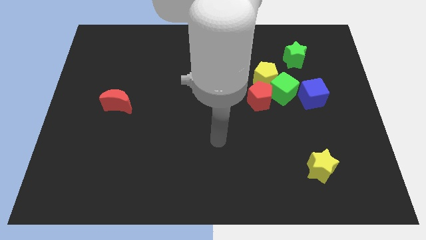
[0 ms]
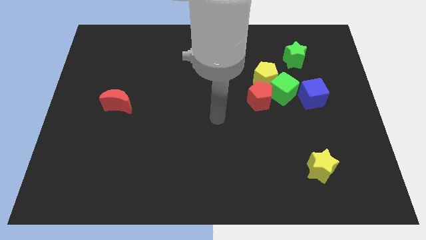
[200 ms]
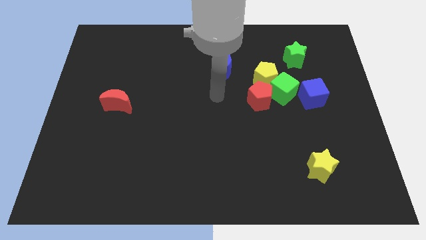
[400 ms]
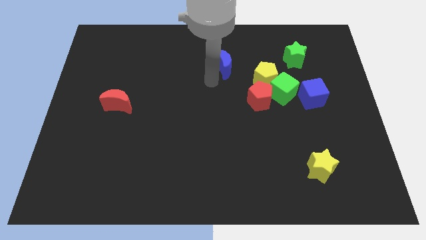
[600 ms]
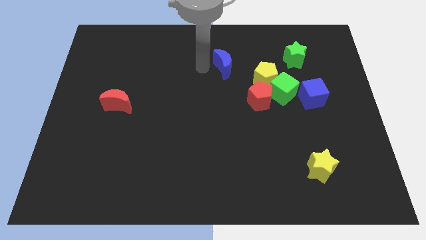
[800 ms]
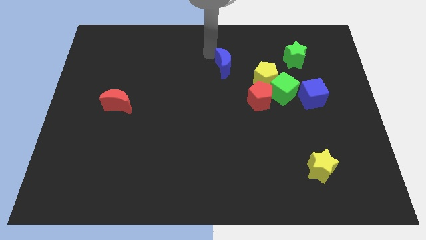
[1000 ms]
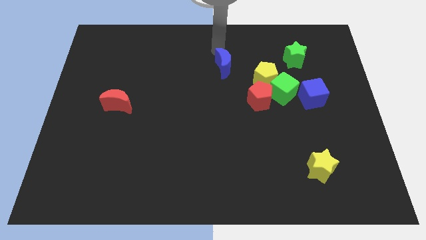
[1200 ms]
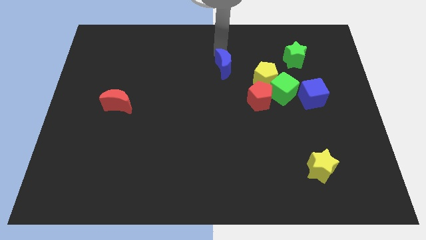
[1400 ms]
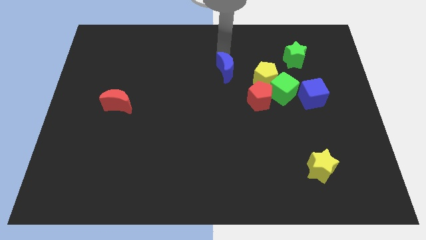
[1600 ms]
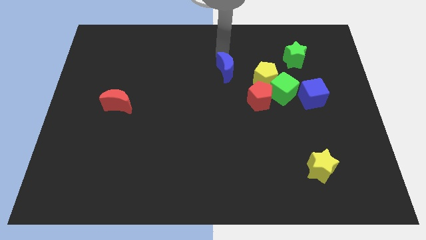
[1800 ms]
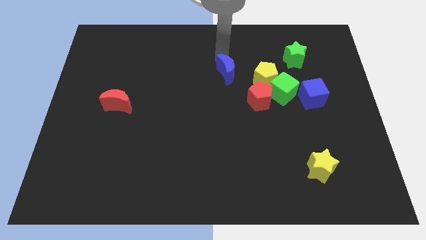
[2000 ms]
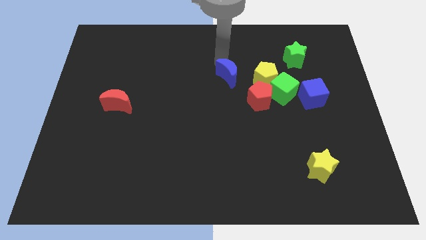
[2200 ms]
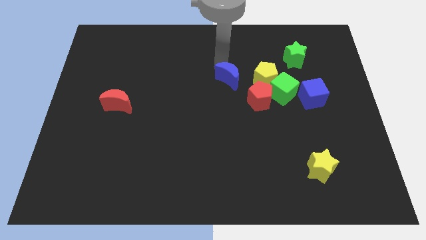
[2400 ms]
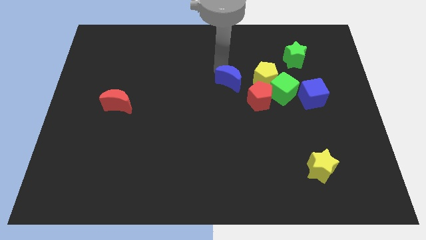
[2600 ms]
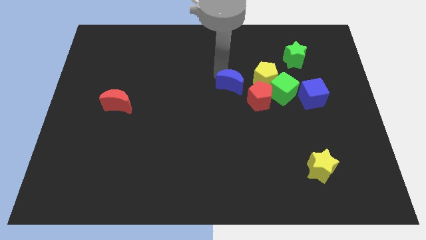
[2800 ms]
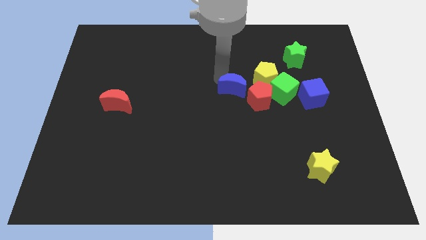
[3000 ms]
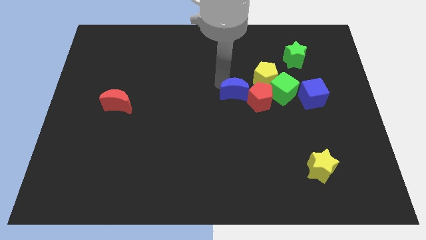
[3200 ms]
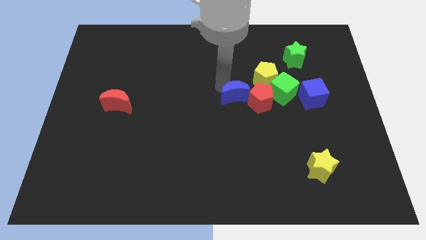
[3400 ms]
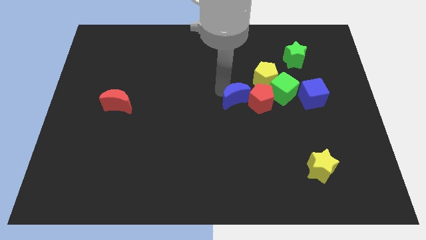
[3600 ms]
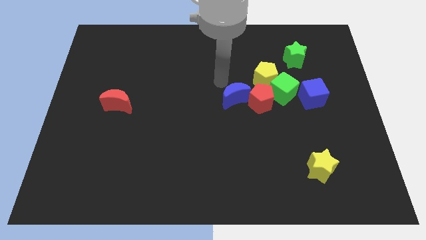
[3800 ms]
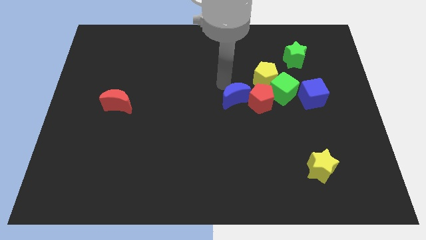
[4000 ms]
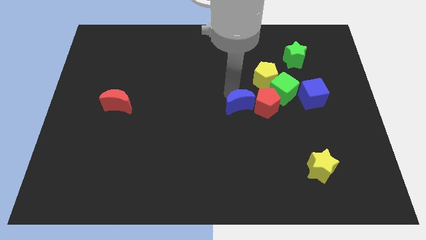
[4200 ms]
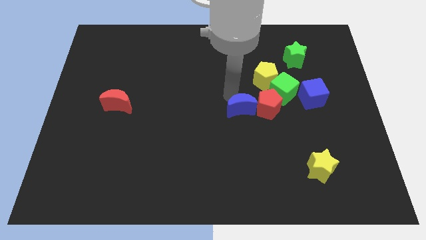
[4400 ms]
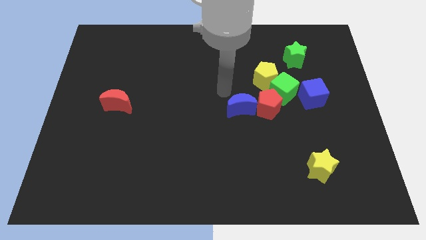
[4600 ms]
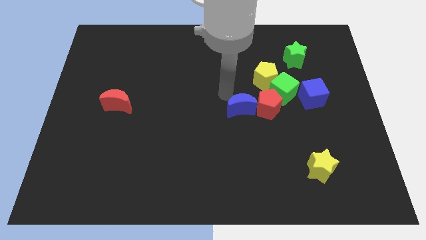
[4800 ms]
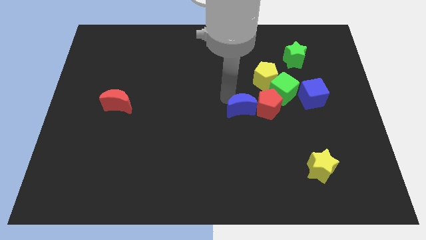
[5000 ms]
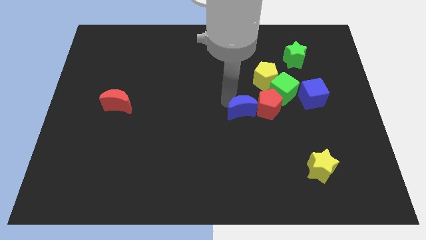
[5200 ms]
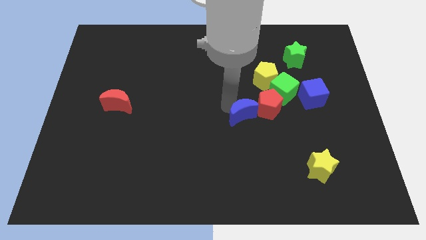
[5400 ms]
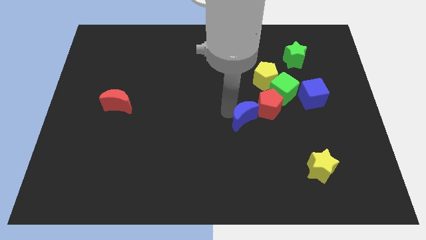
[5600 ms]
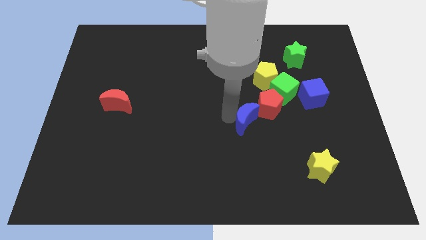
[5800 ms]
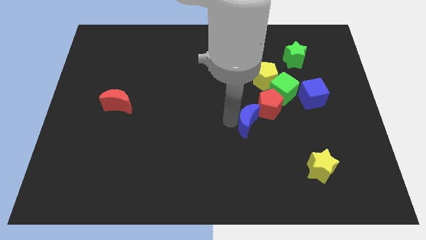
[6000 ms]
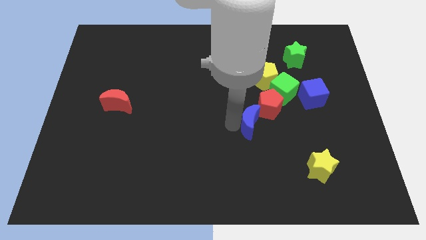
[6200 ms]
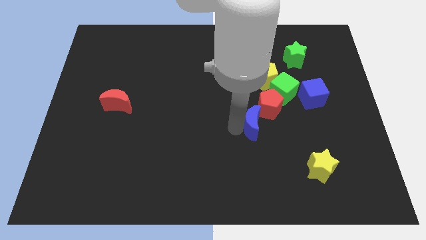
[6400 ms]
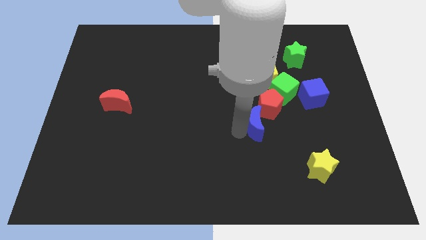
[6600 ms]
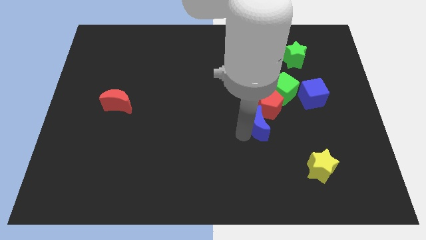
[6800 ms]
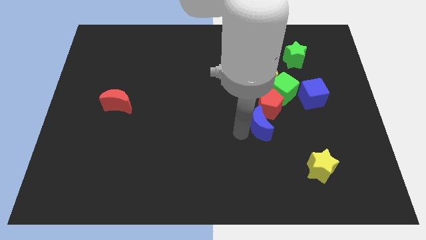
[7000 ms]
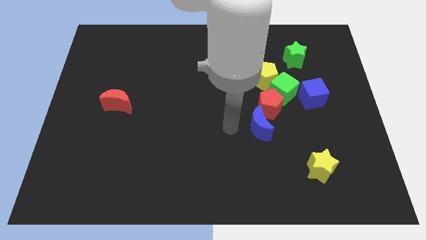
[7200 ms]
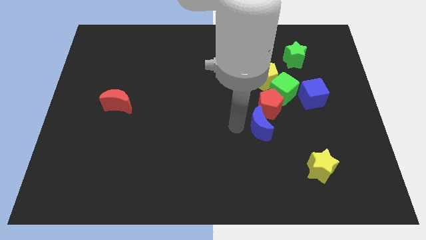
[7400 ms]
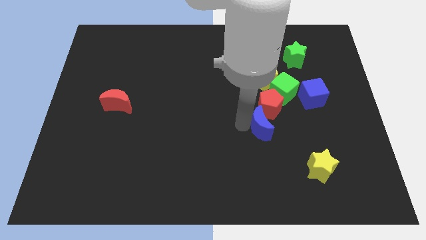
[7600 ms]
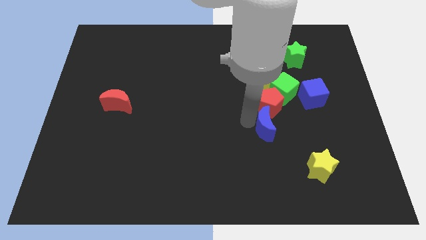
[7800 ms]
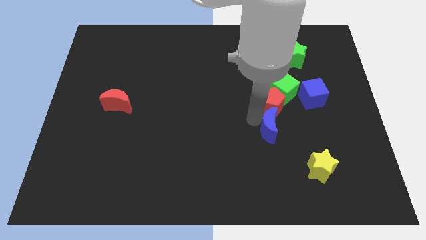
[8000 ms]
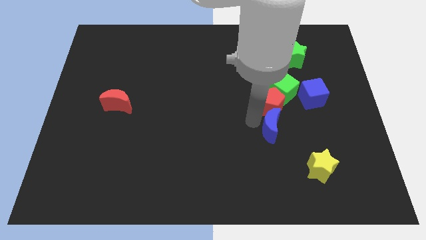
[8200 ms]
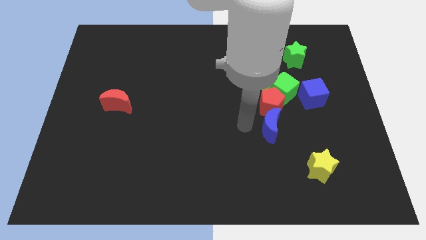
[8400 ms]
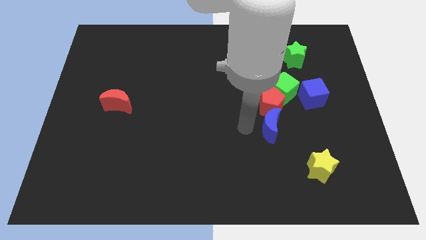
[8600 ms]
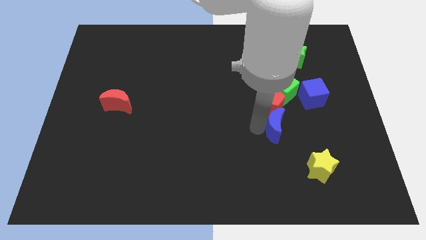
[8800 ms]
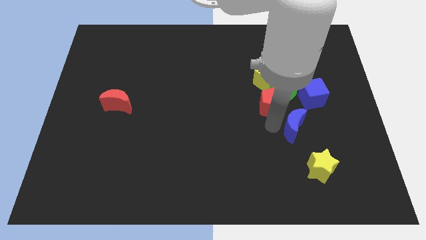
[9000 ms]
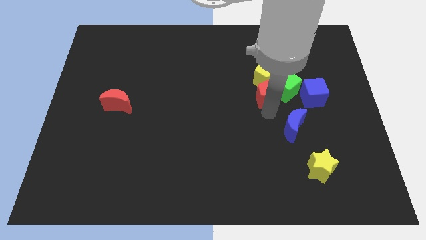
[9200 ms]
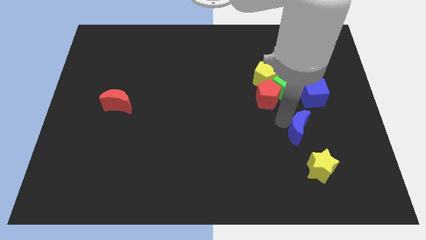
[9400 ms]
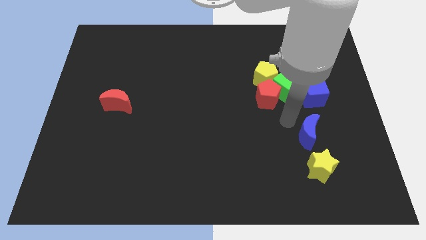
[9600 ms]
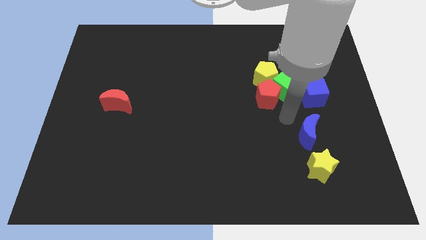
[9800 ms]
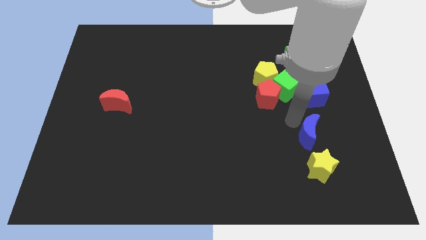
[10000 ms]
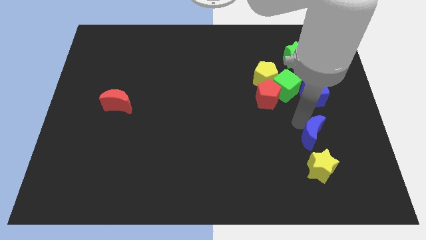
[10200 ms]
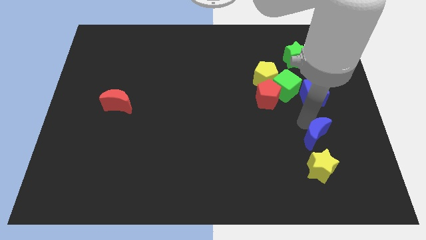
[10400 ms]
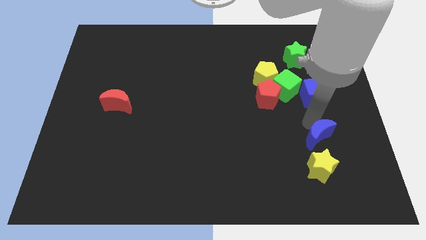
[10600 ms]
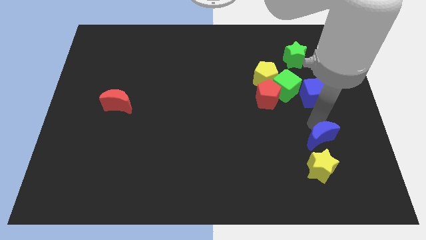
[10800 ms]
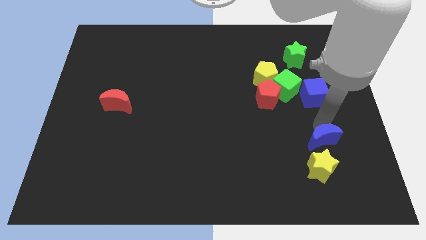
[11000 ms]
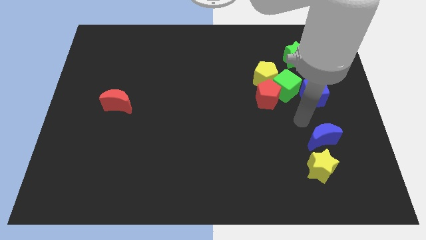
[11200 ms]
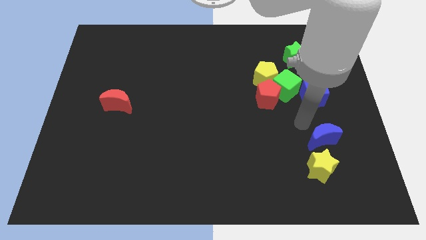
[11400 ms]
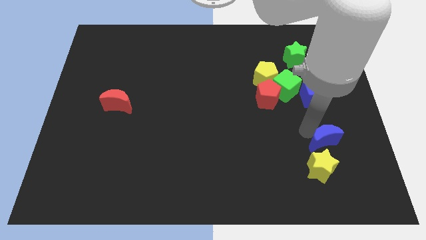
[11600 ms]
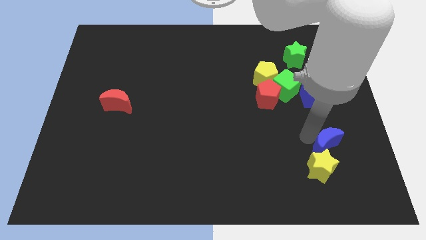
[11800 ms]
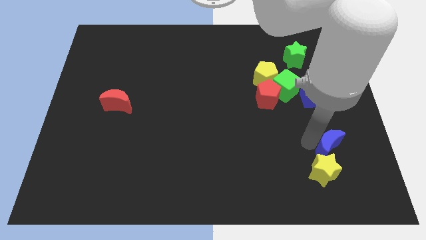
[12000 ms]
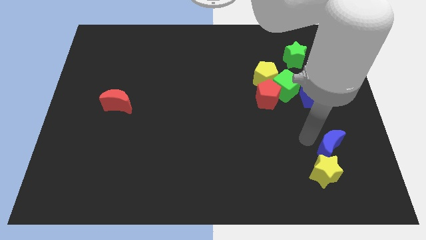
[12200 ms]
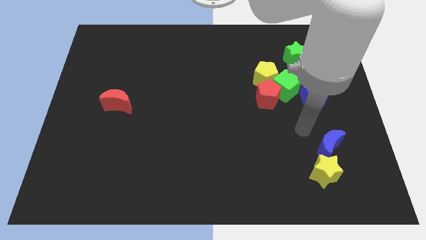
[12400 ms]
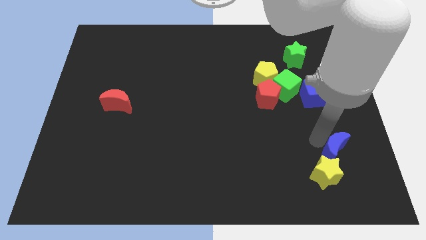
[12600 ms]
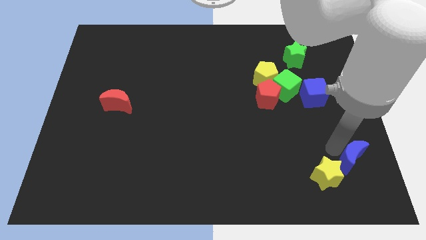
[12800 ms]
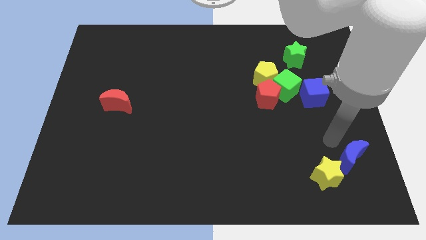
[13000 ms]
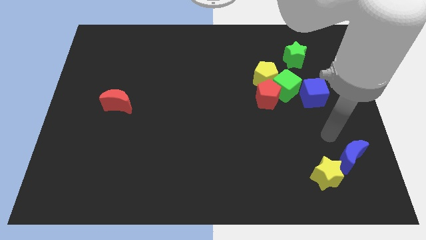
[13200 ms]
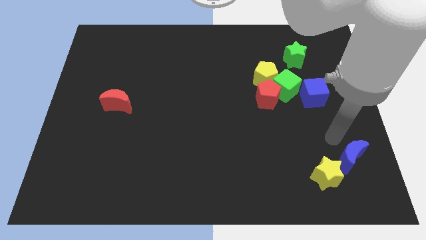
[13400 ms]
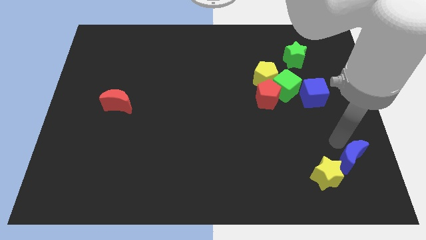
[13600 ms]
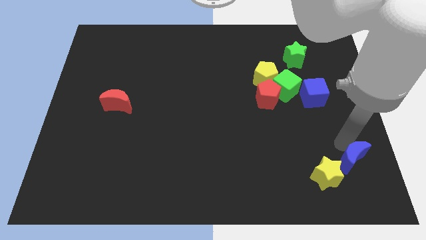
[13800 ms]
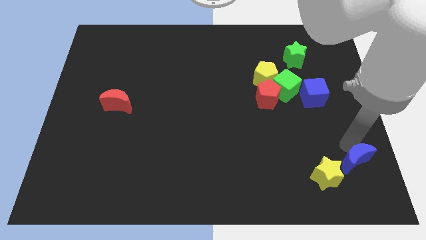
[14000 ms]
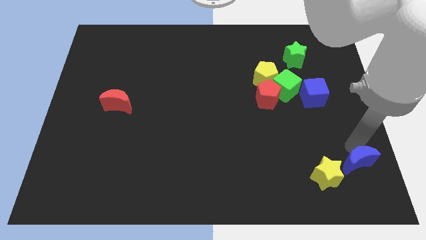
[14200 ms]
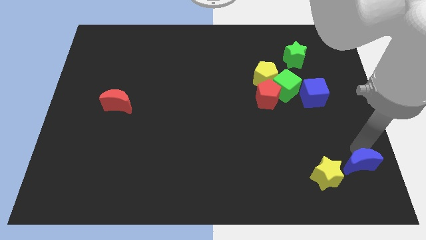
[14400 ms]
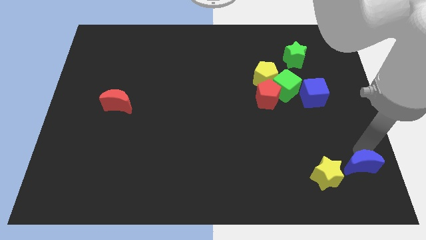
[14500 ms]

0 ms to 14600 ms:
move the blue moon to the bottom right corner

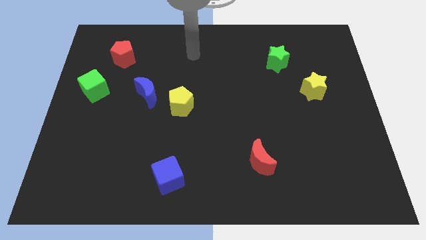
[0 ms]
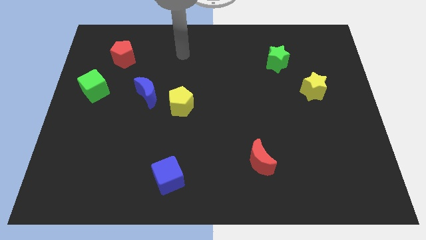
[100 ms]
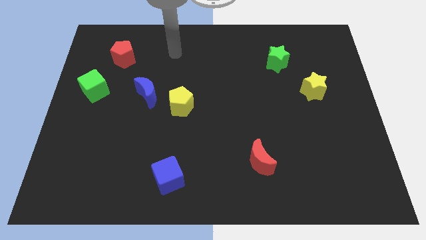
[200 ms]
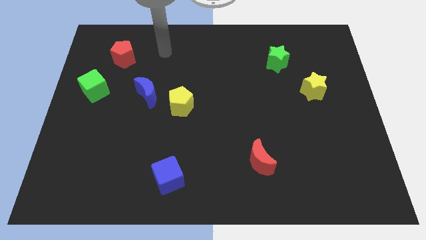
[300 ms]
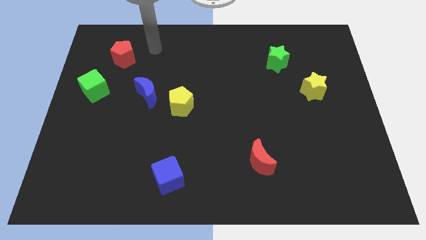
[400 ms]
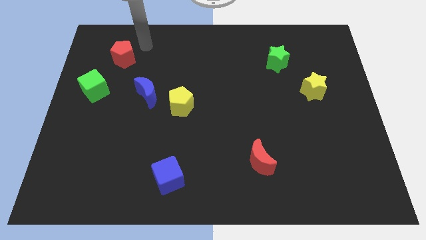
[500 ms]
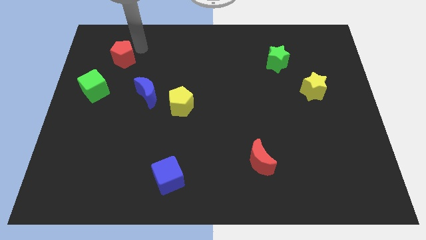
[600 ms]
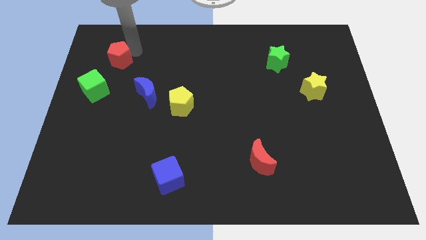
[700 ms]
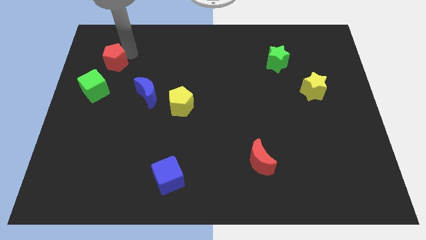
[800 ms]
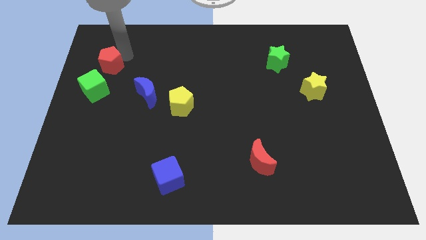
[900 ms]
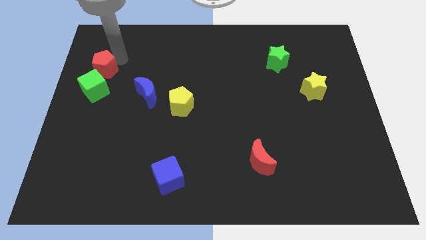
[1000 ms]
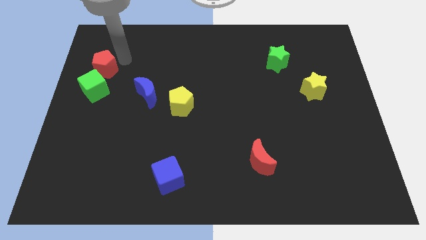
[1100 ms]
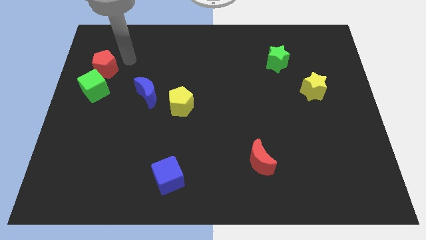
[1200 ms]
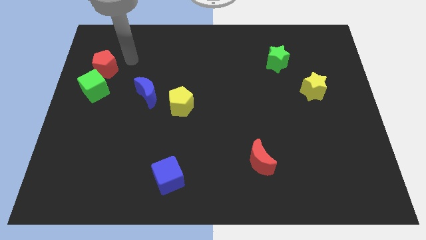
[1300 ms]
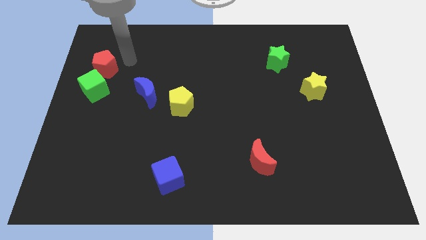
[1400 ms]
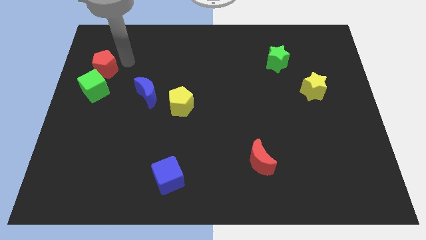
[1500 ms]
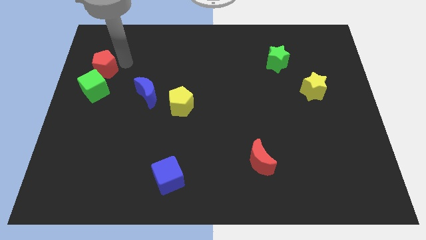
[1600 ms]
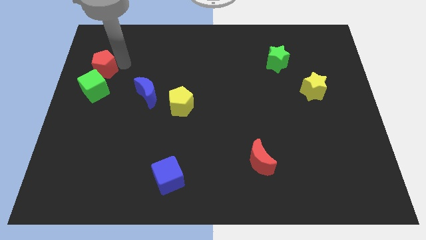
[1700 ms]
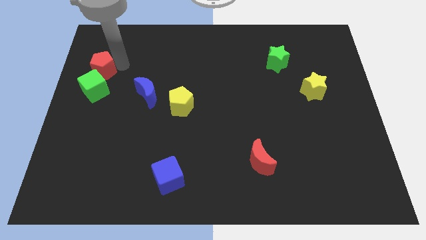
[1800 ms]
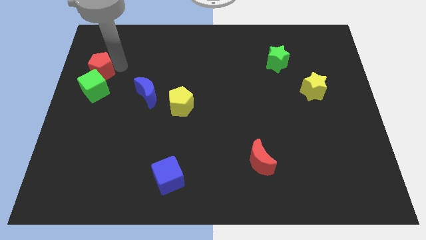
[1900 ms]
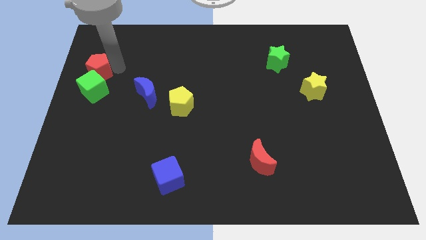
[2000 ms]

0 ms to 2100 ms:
move the red pentagon to the center left
